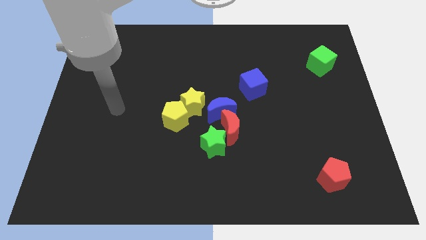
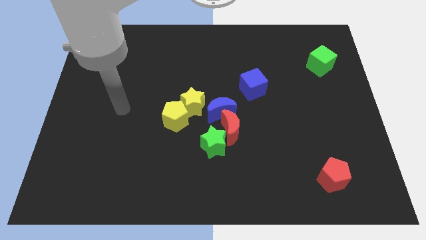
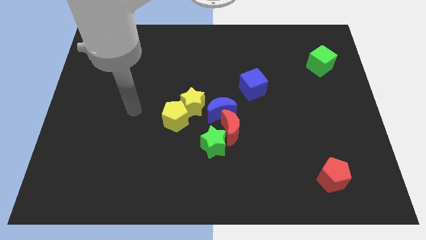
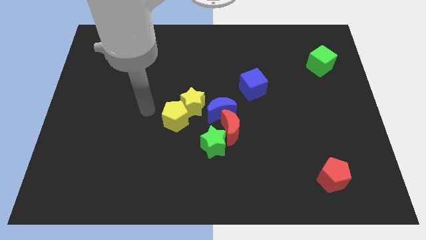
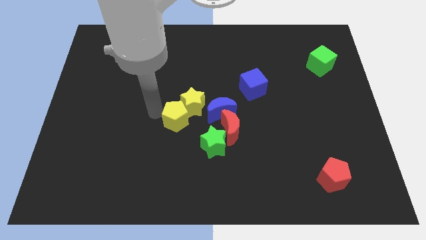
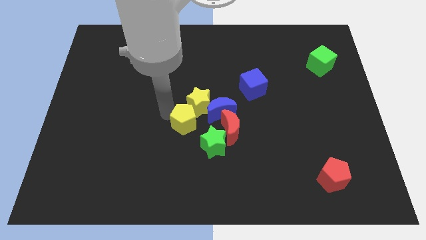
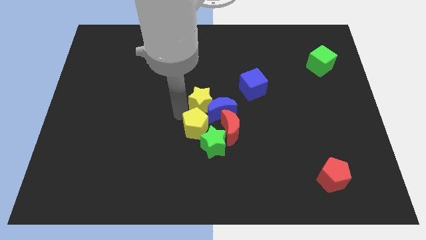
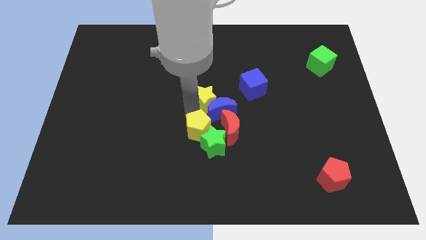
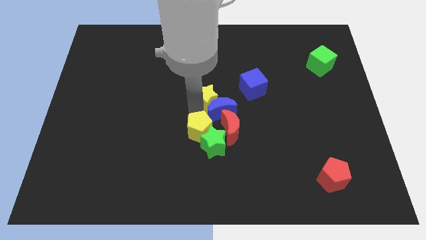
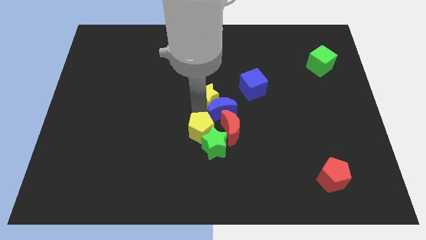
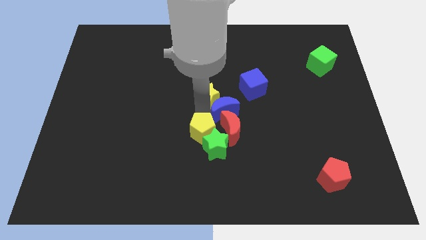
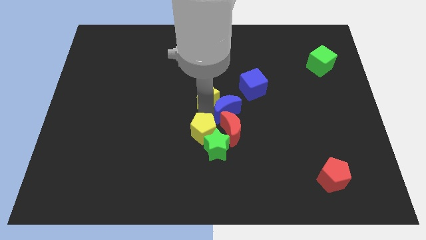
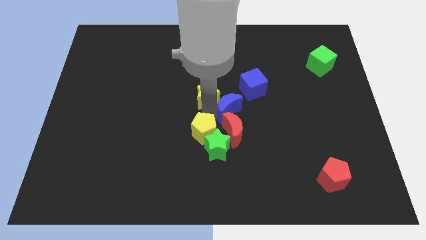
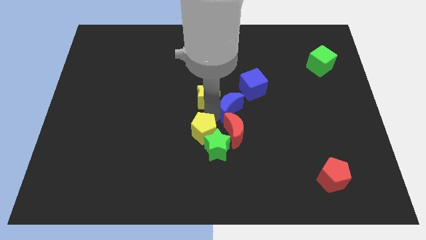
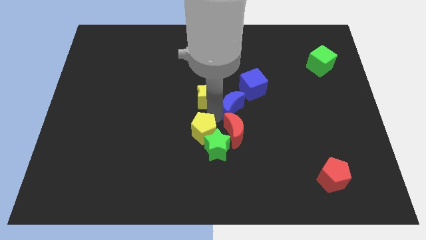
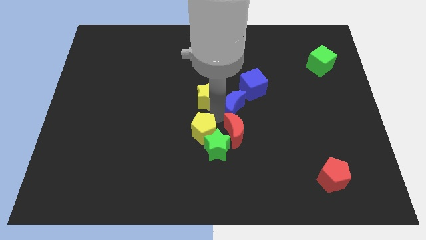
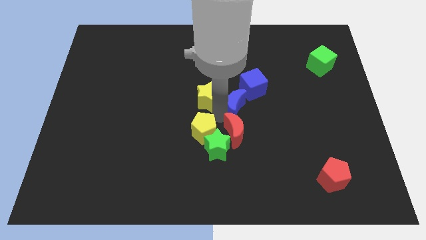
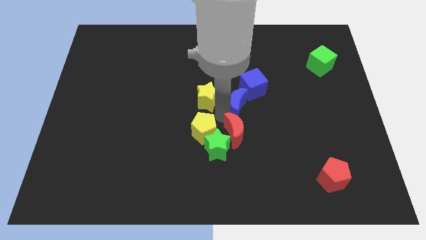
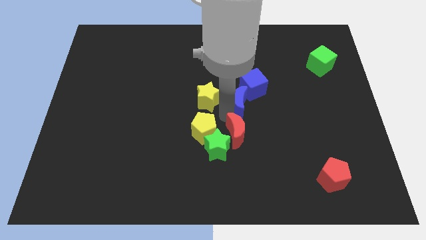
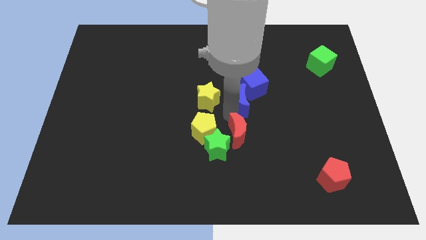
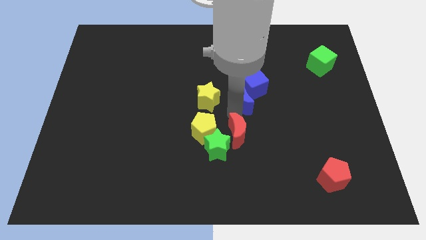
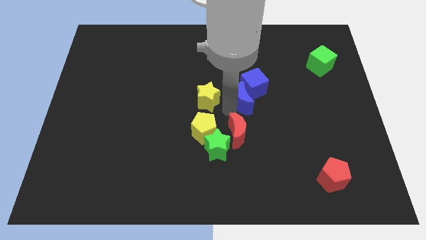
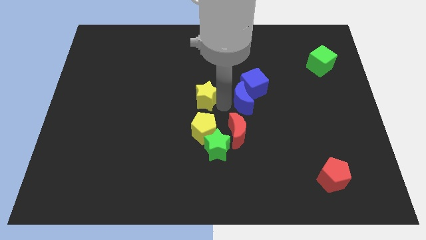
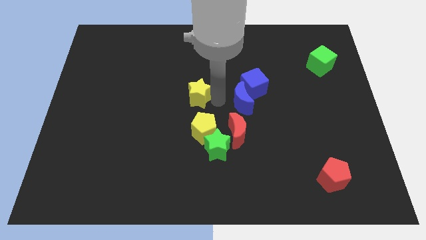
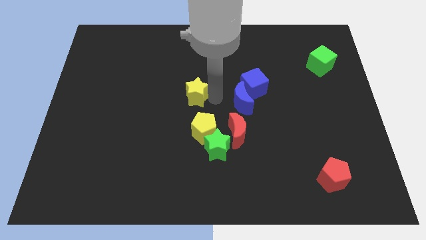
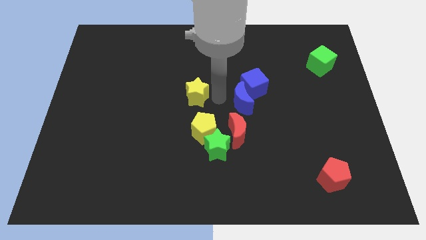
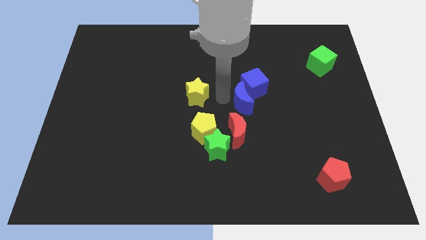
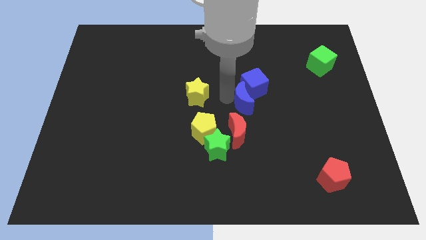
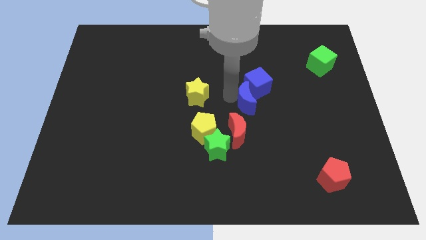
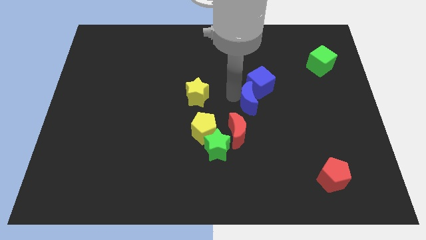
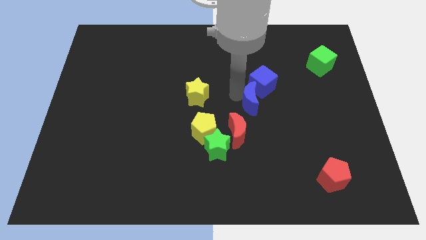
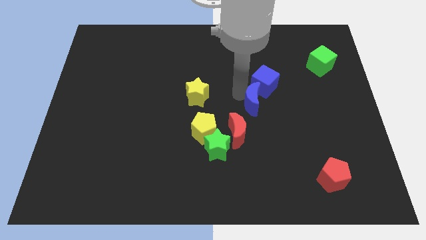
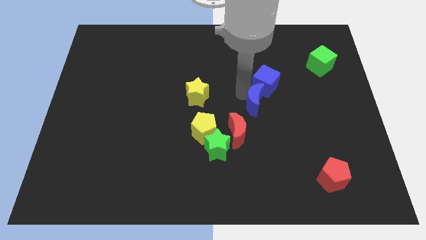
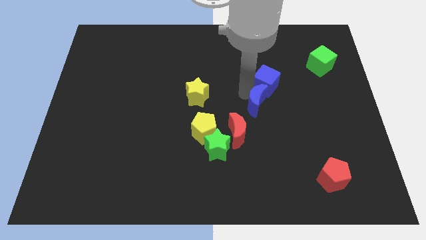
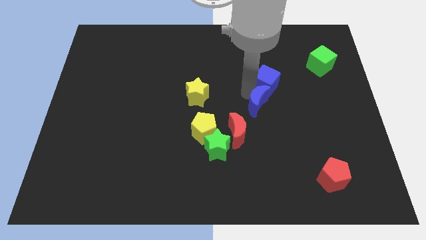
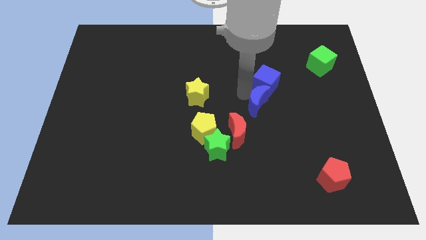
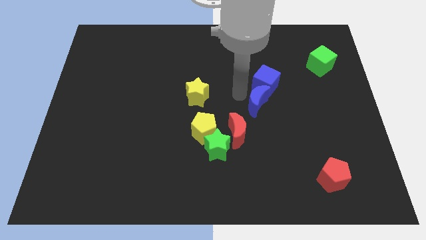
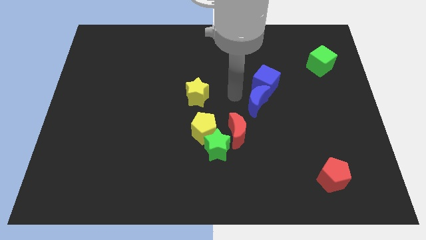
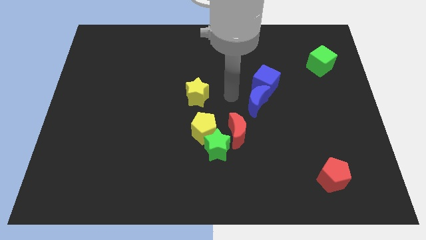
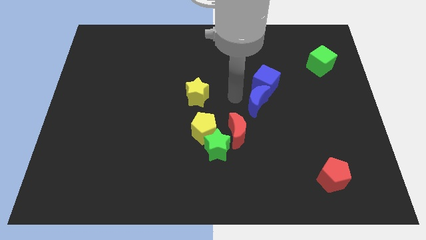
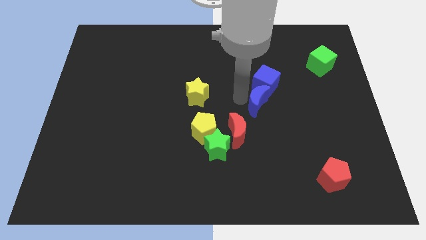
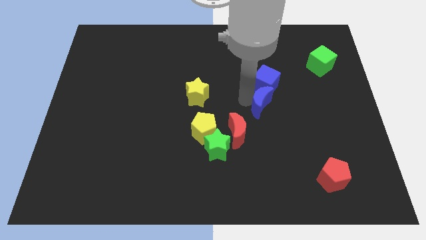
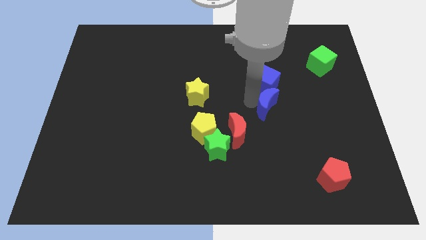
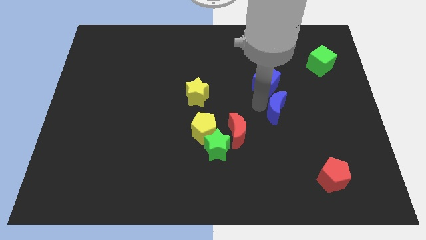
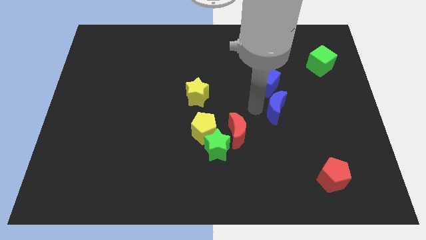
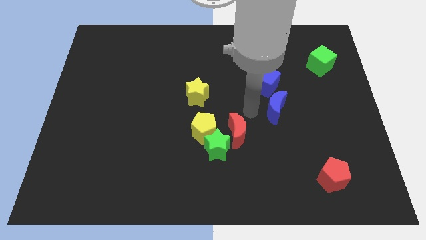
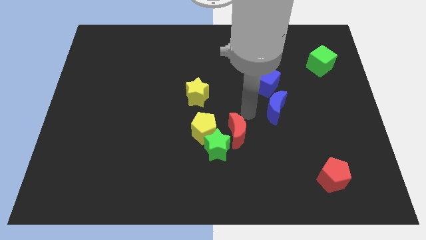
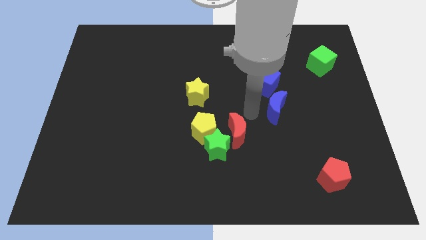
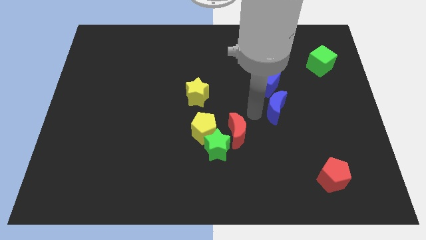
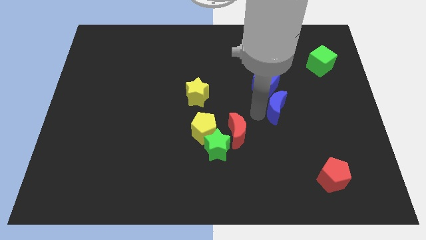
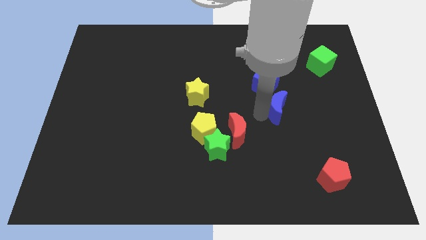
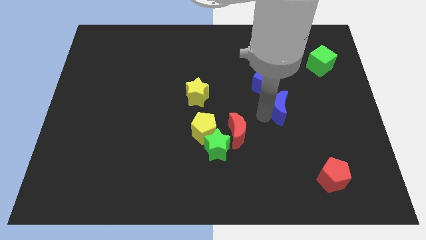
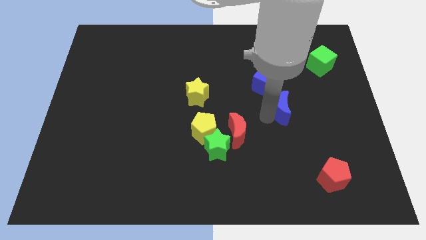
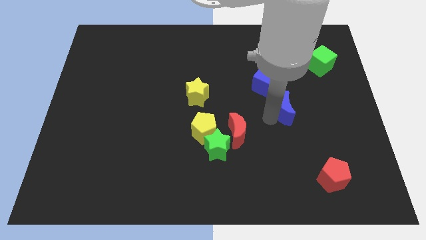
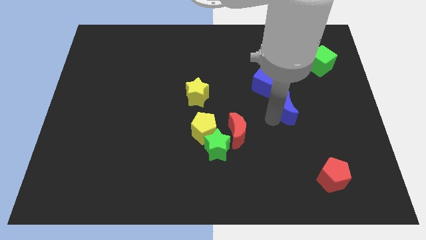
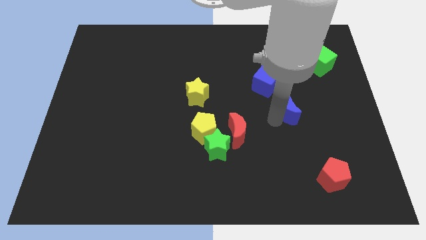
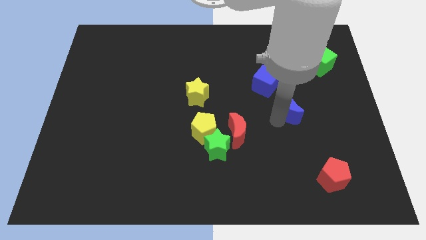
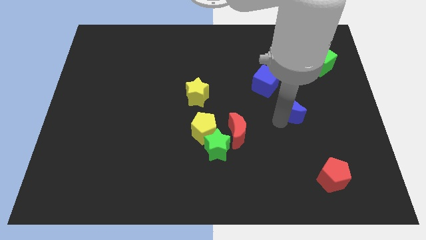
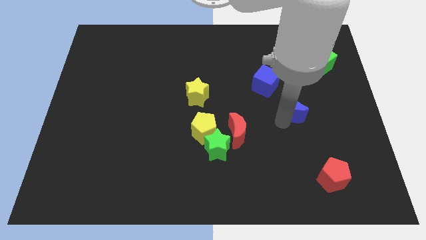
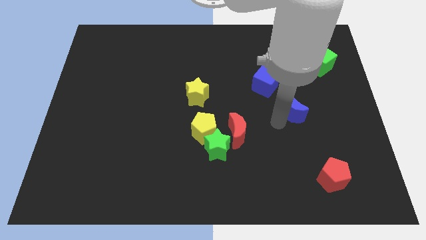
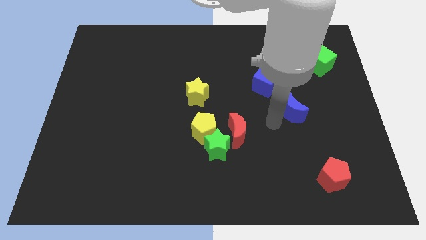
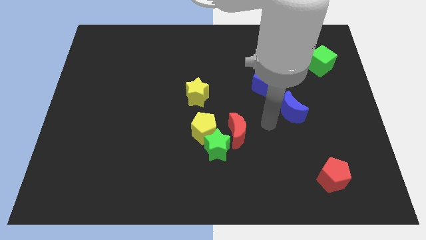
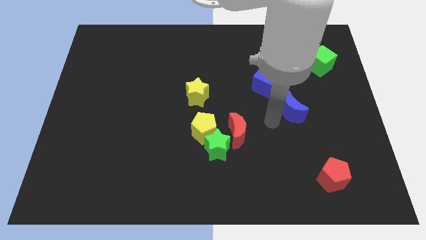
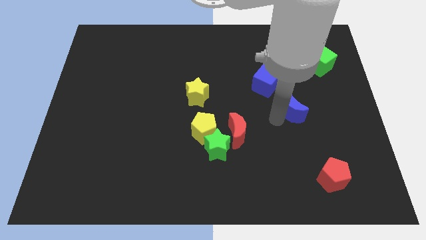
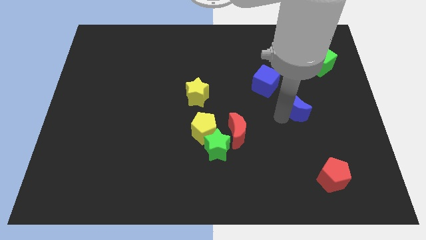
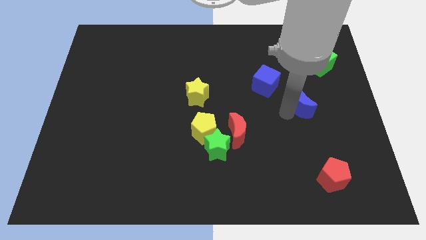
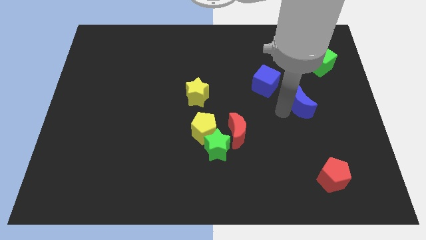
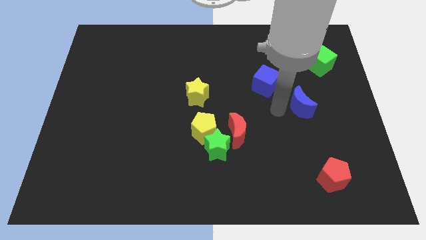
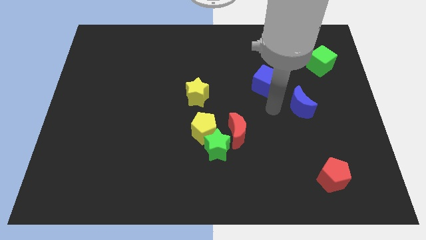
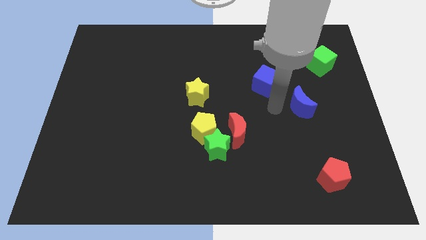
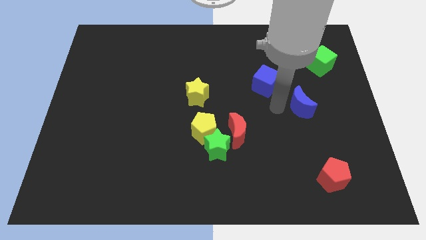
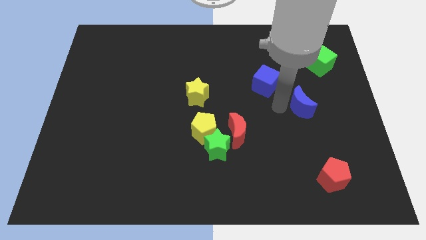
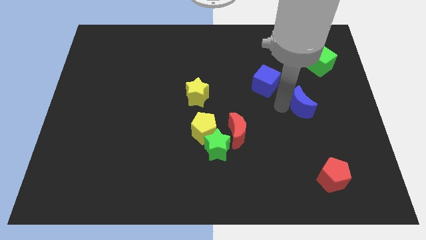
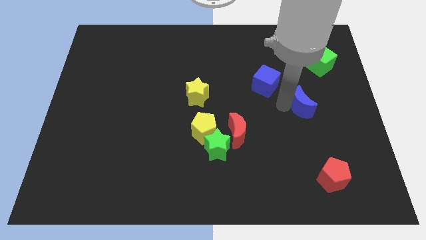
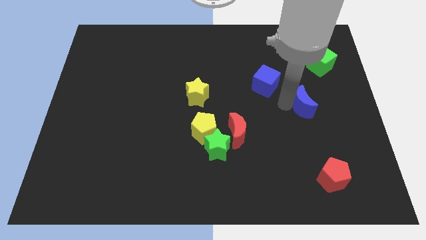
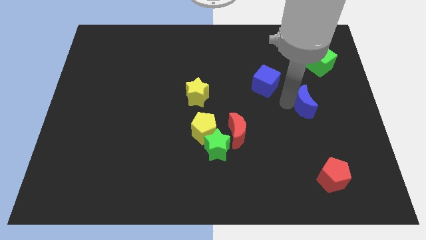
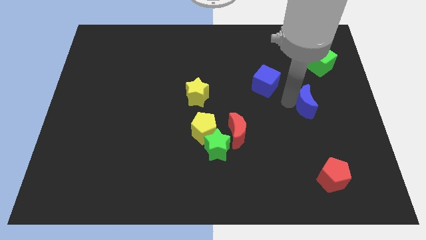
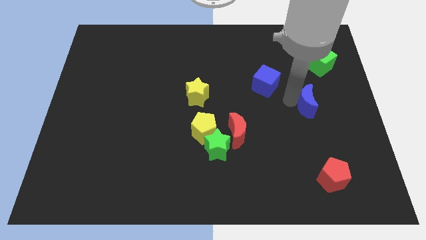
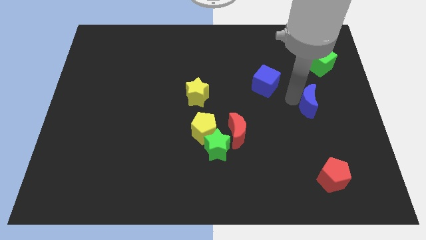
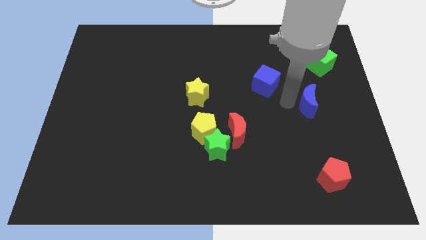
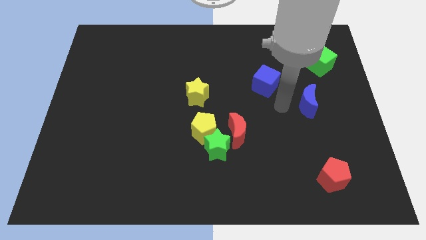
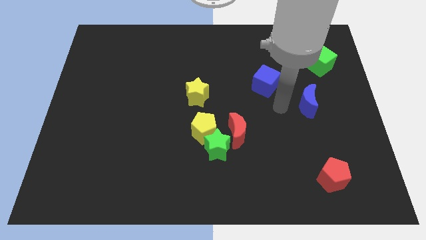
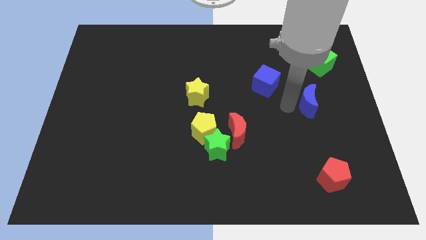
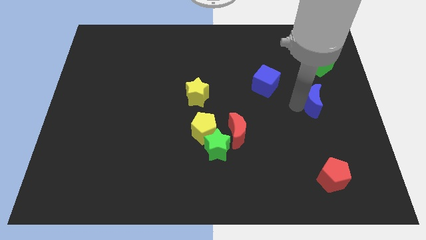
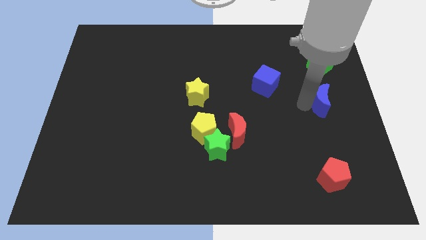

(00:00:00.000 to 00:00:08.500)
push the blue moon to the right side
